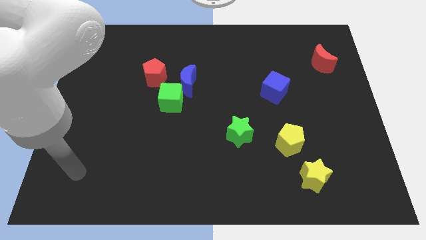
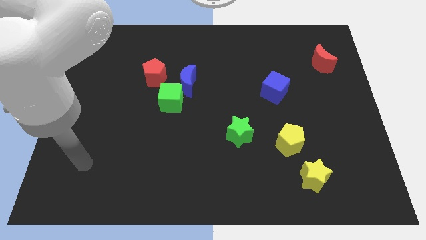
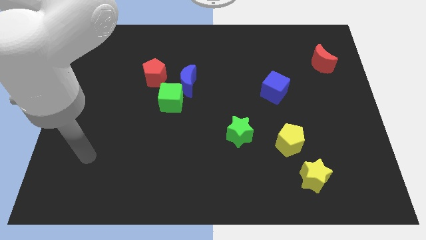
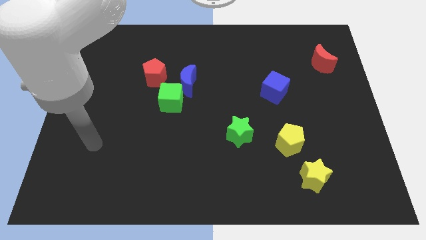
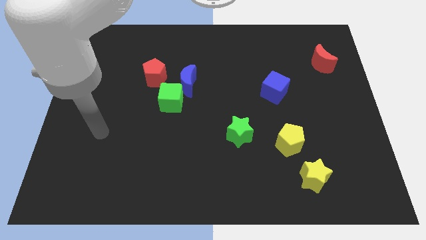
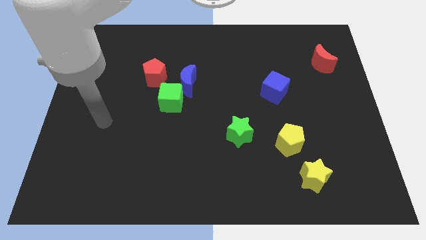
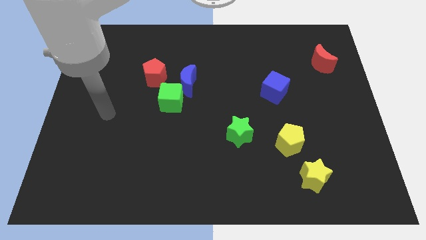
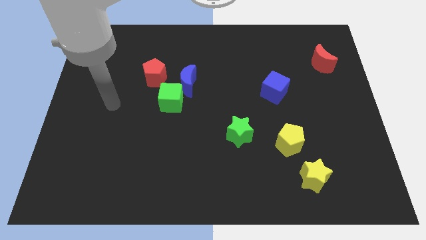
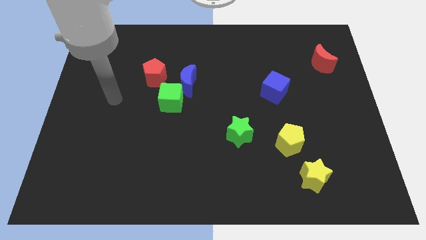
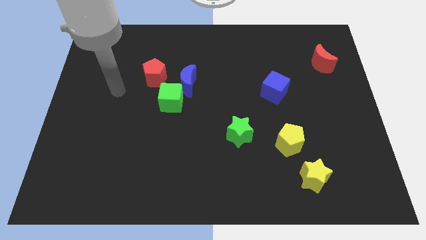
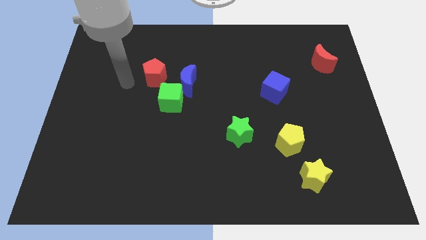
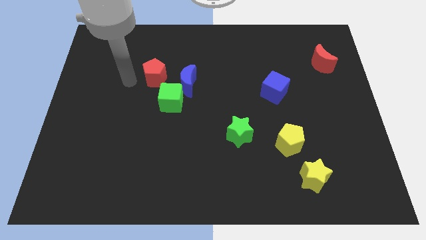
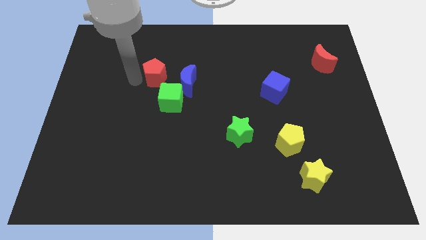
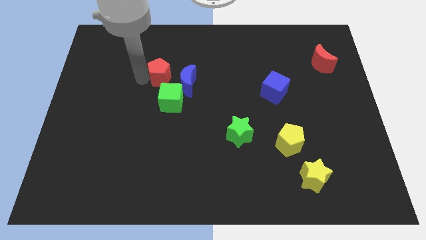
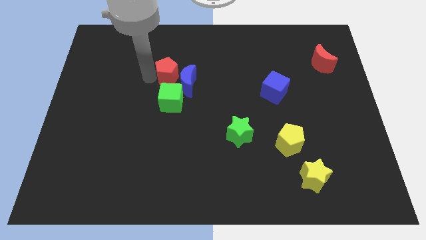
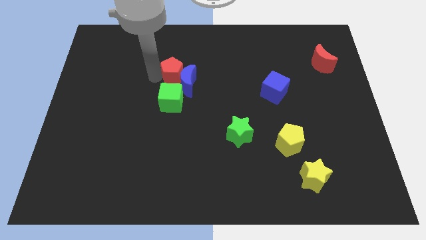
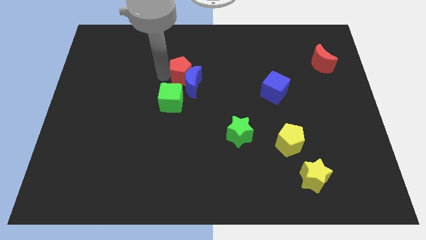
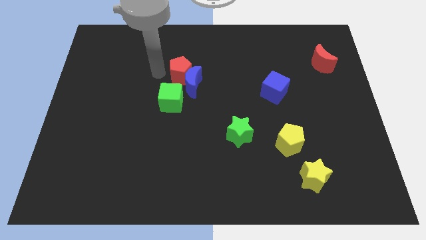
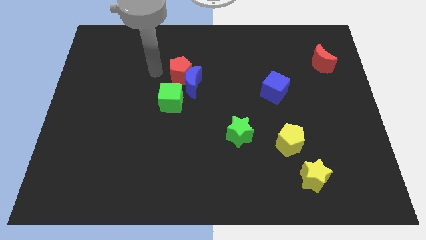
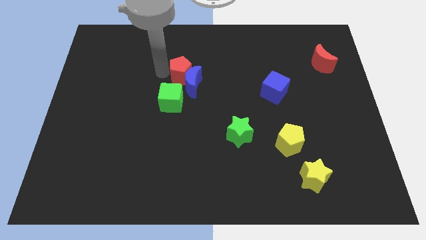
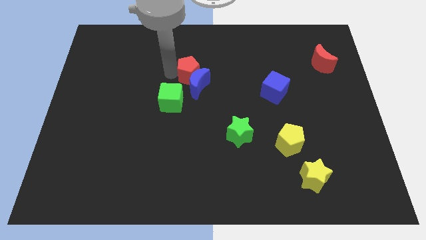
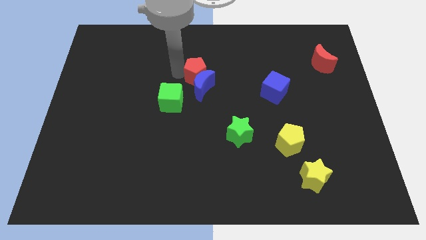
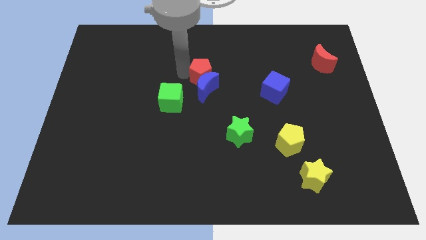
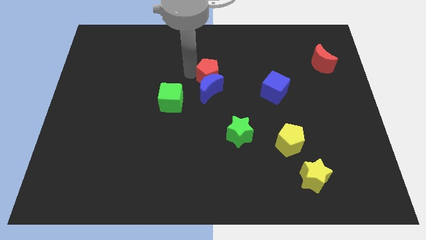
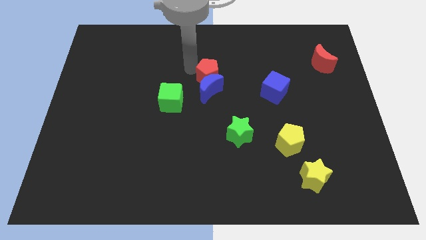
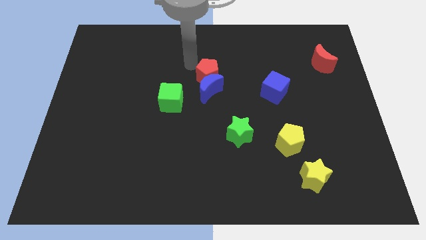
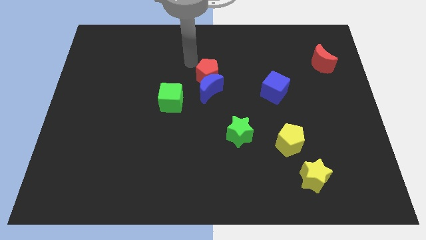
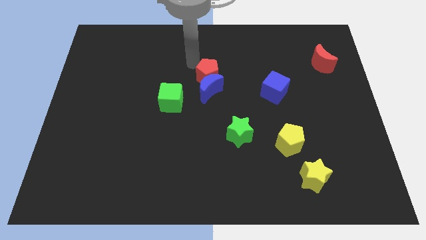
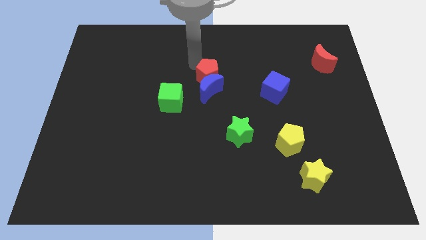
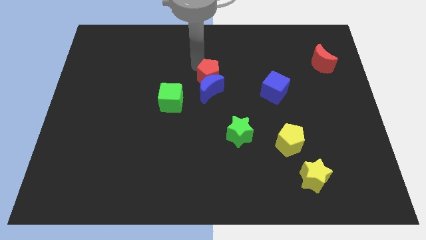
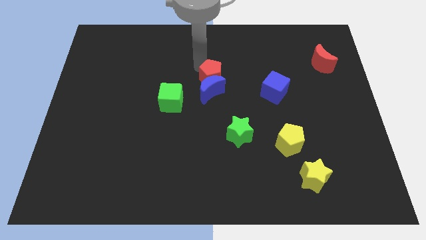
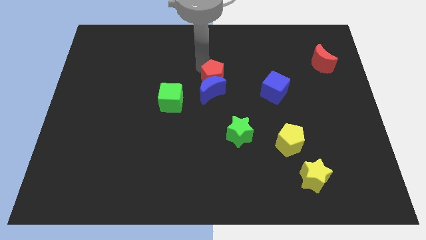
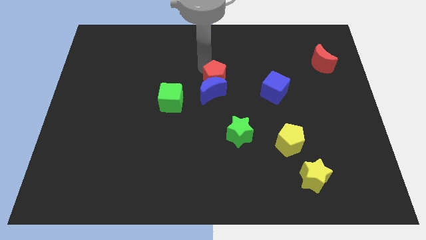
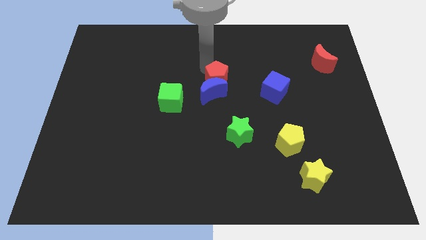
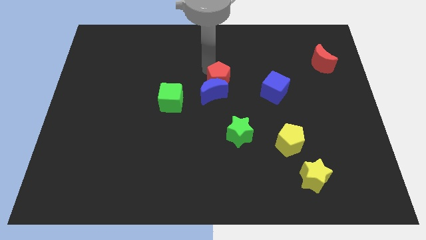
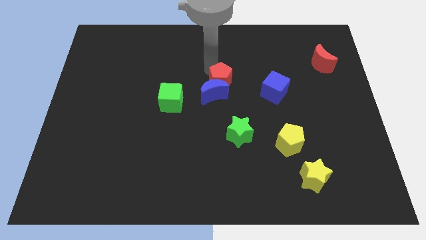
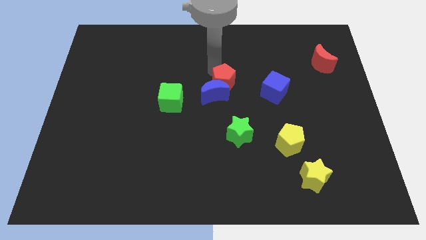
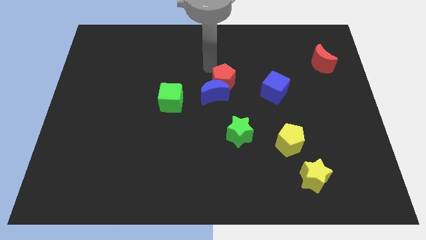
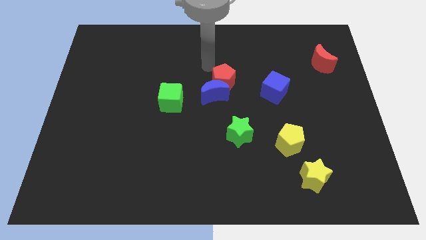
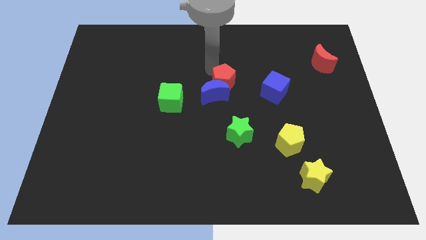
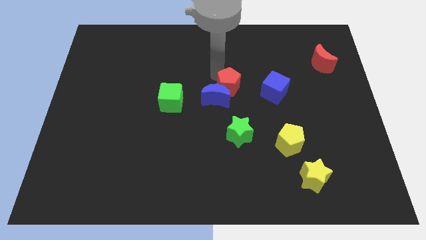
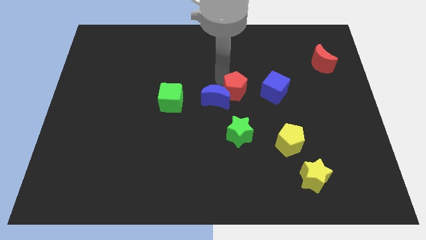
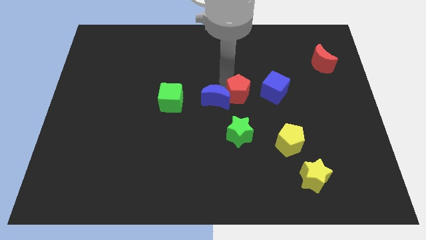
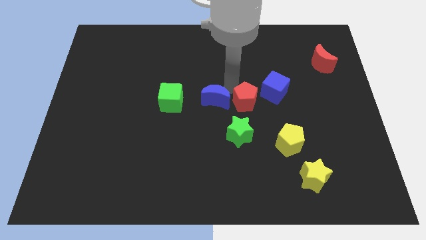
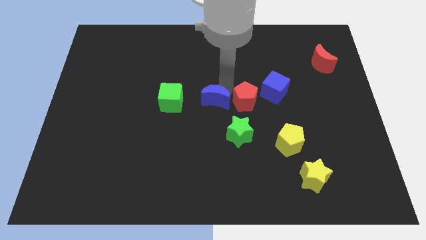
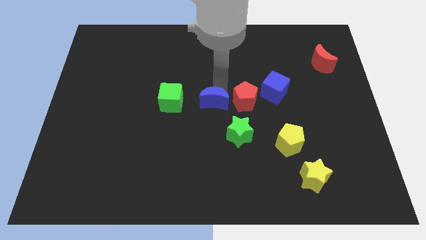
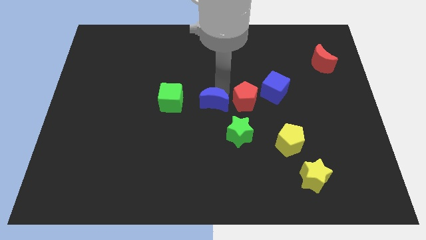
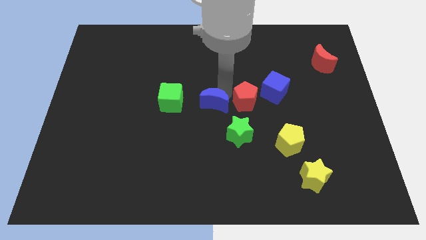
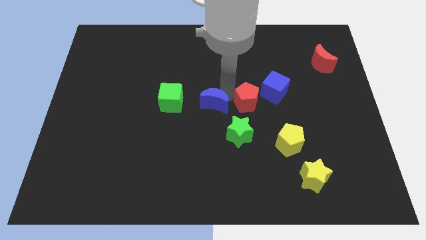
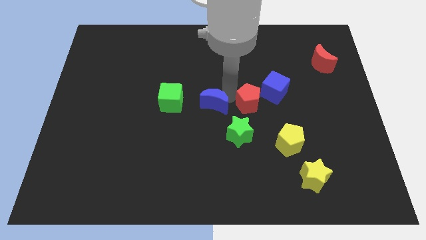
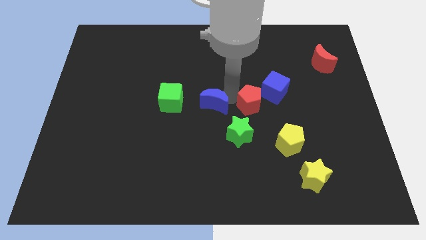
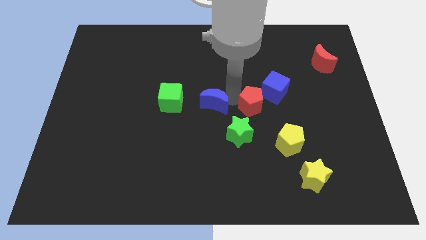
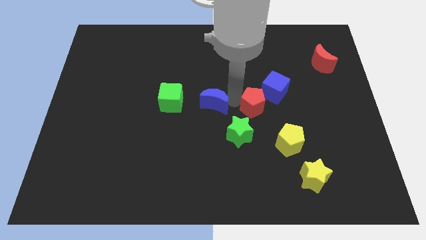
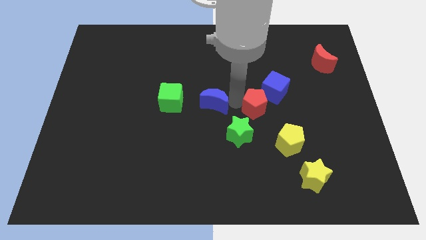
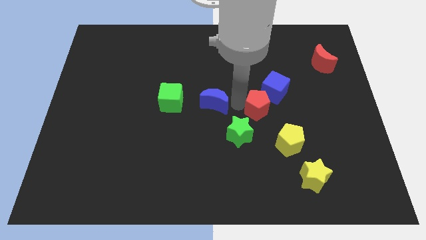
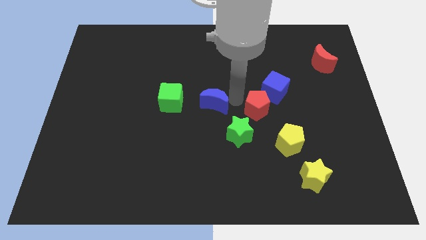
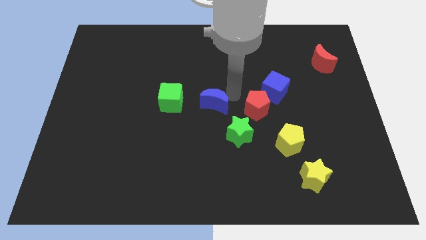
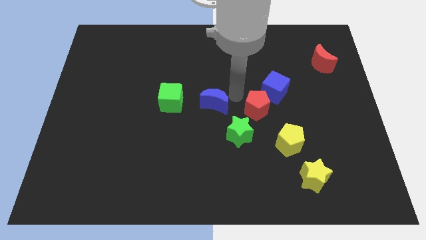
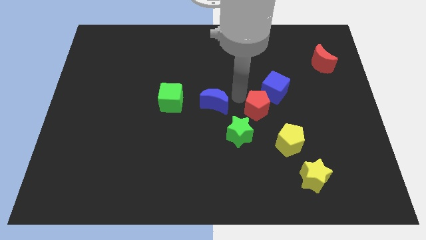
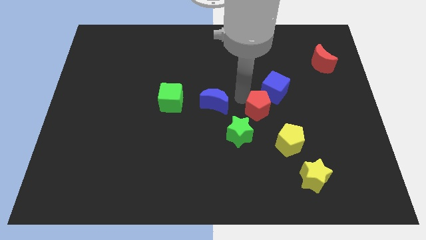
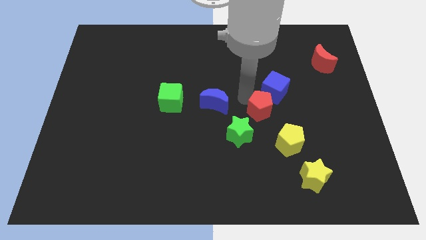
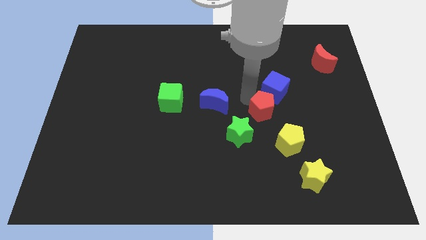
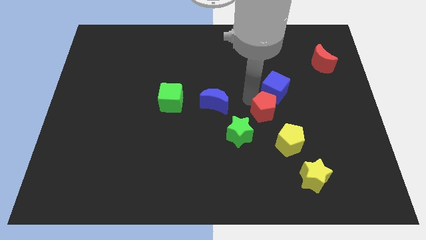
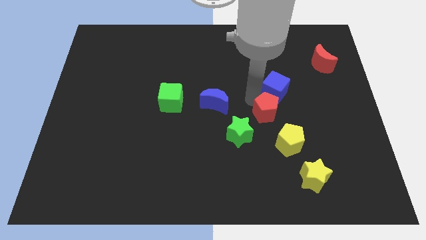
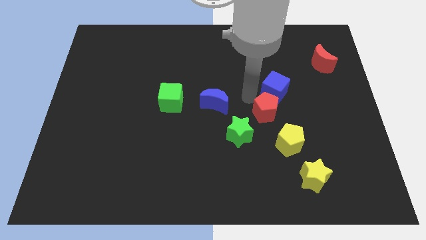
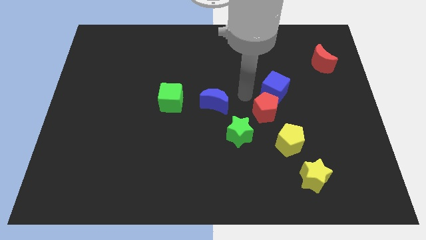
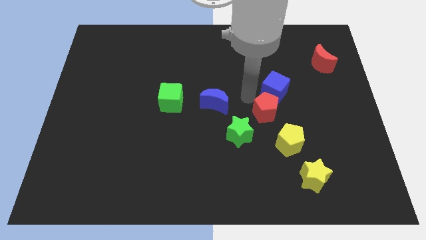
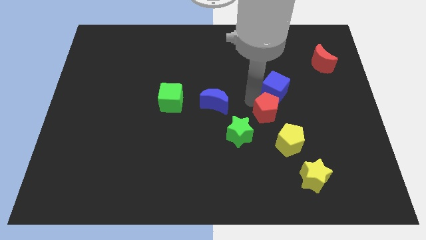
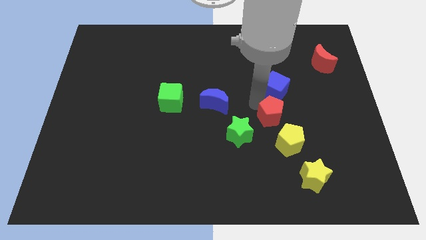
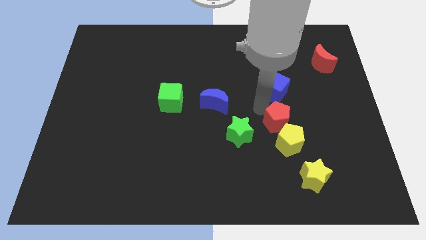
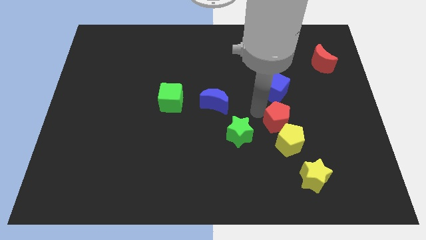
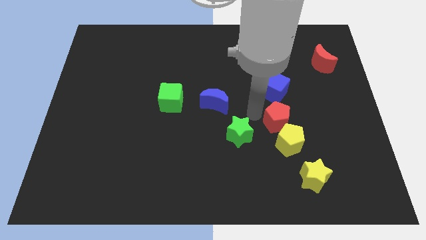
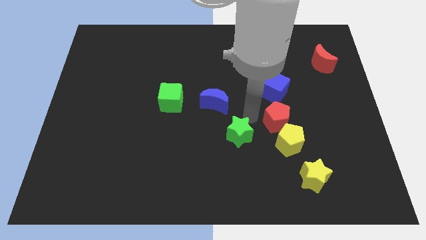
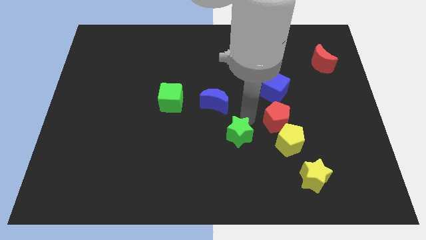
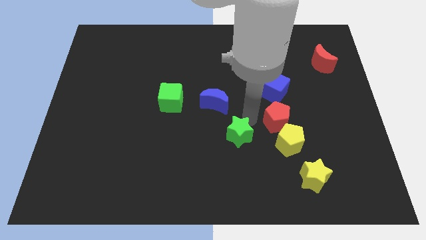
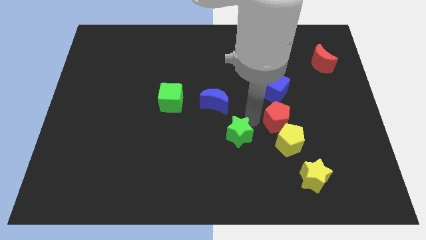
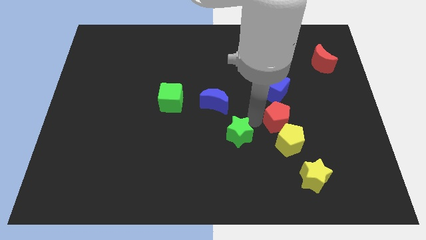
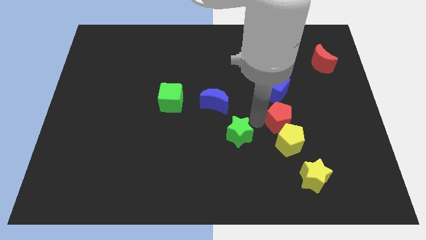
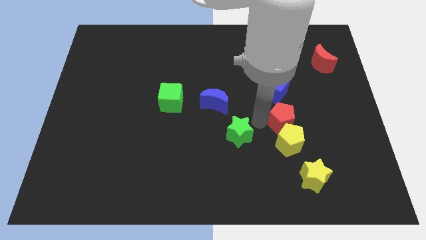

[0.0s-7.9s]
slide the red pentagon to the top right of the yellow pentagon
